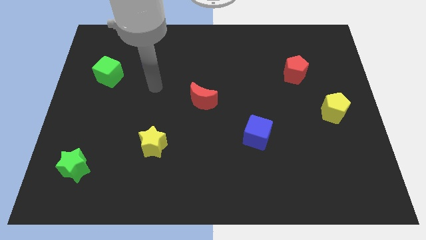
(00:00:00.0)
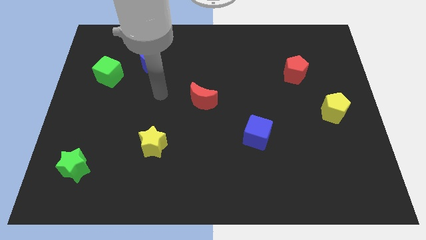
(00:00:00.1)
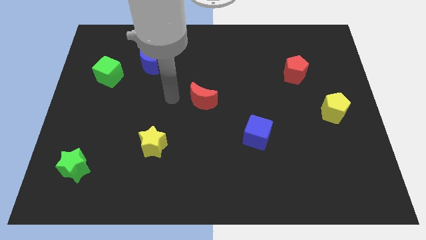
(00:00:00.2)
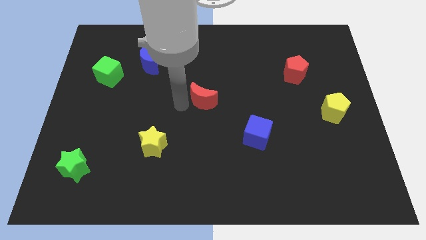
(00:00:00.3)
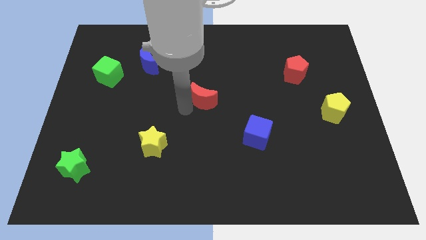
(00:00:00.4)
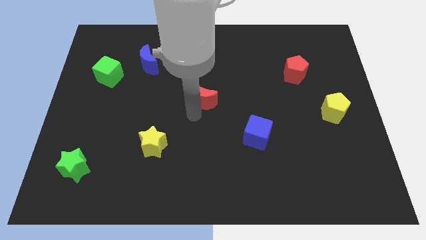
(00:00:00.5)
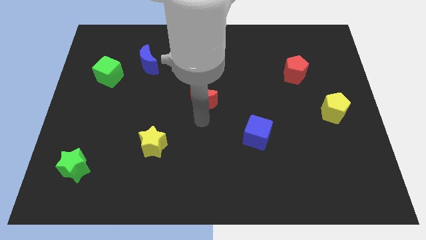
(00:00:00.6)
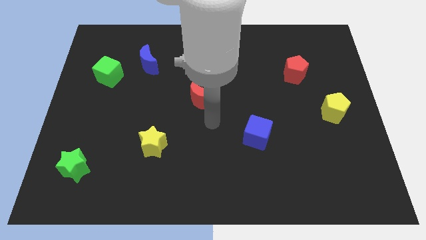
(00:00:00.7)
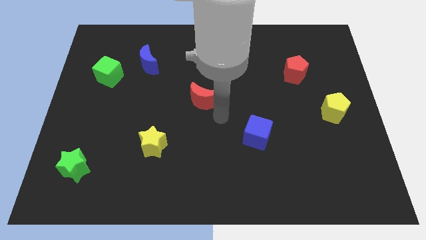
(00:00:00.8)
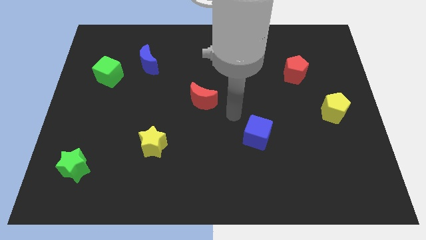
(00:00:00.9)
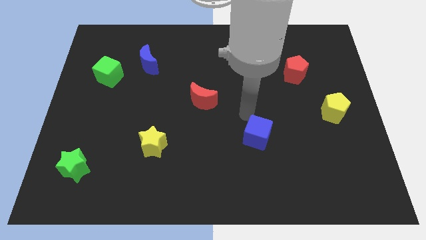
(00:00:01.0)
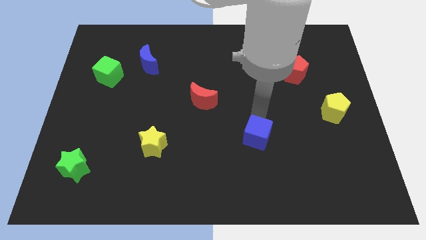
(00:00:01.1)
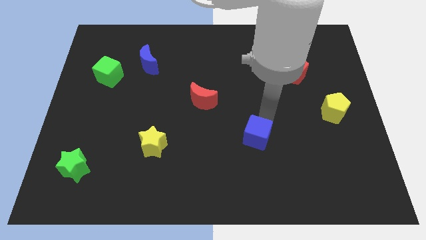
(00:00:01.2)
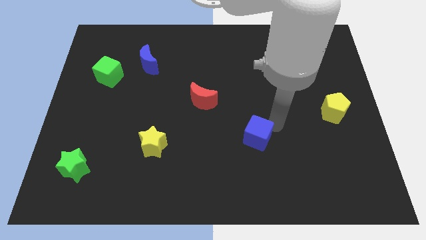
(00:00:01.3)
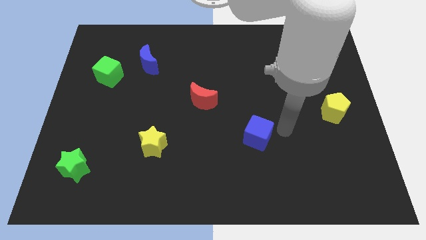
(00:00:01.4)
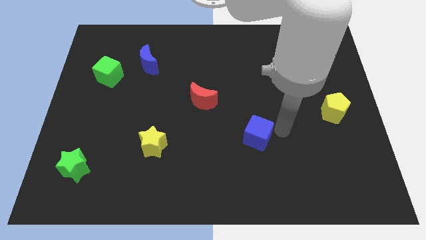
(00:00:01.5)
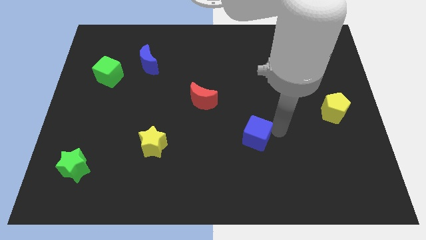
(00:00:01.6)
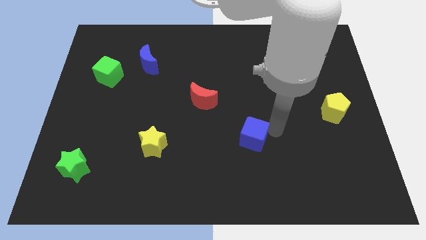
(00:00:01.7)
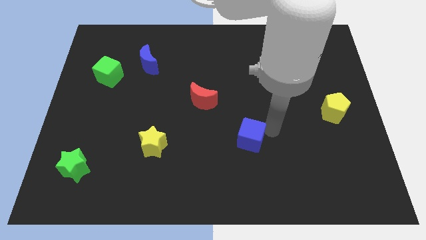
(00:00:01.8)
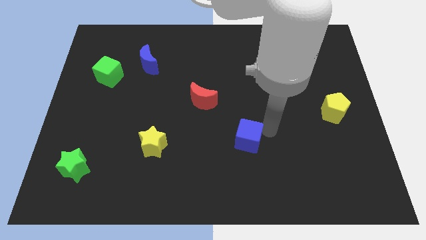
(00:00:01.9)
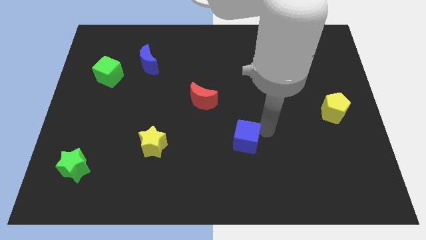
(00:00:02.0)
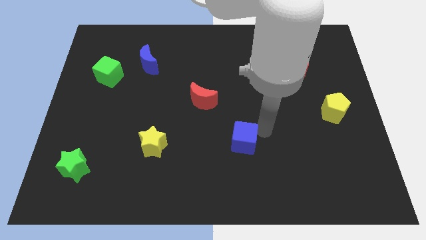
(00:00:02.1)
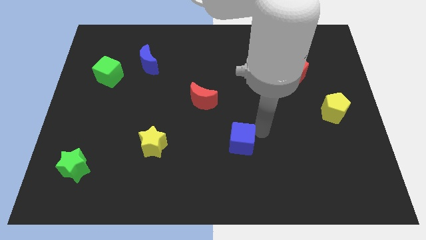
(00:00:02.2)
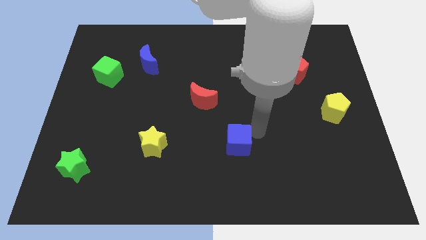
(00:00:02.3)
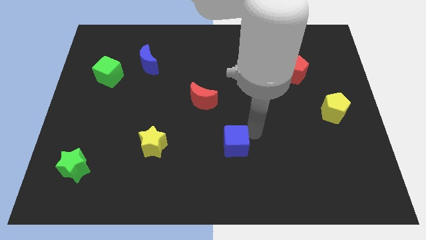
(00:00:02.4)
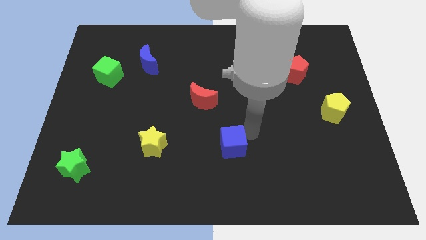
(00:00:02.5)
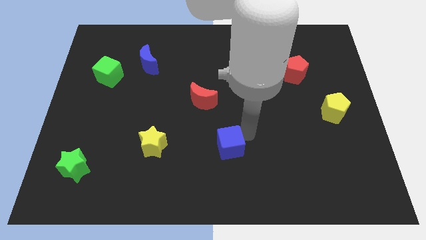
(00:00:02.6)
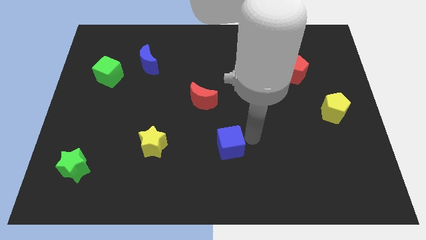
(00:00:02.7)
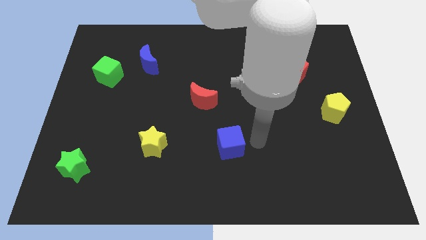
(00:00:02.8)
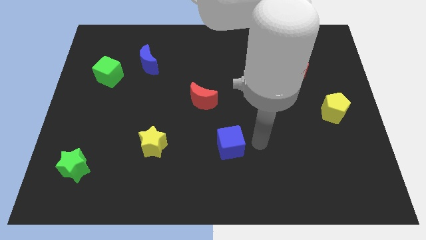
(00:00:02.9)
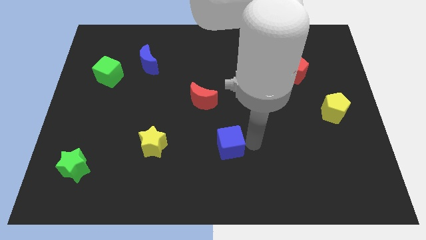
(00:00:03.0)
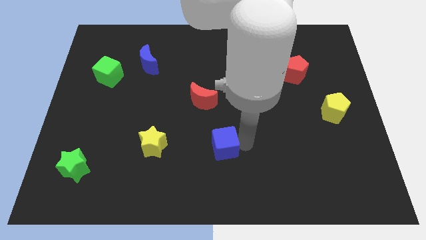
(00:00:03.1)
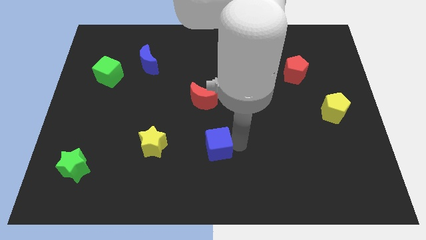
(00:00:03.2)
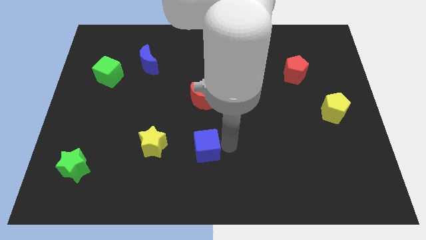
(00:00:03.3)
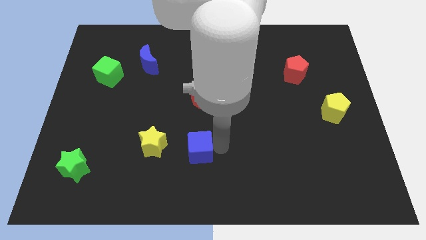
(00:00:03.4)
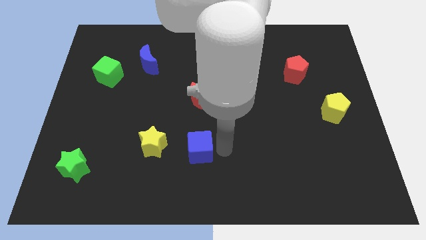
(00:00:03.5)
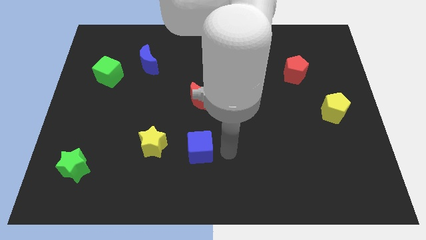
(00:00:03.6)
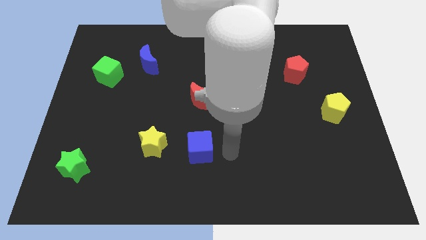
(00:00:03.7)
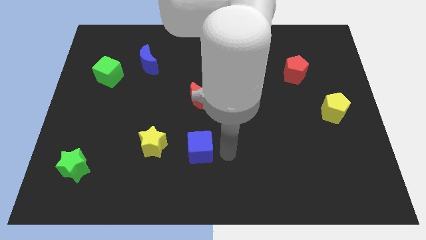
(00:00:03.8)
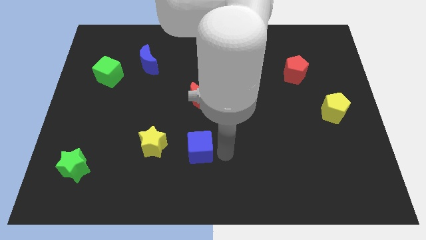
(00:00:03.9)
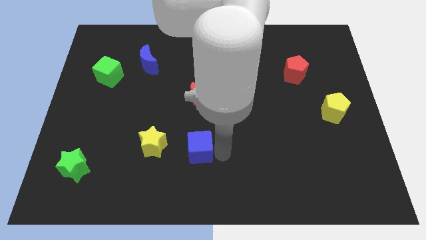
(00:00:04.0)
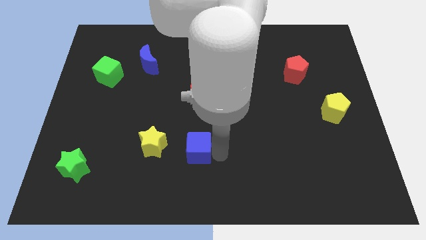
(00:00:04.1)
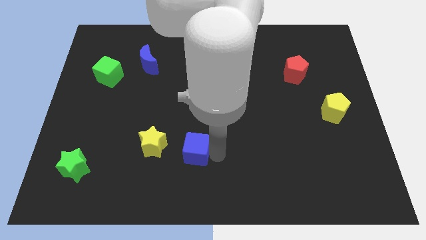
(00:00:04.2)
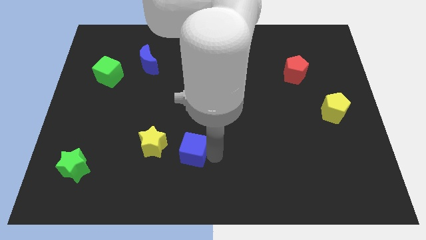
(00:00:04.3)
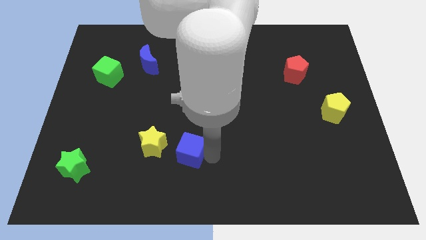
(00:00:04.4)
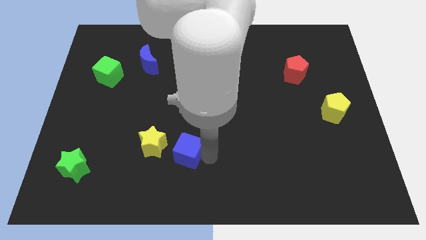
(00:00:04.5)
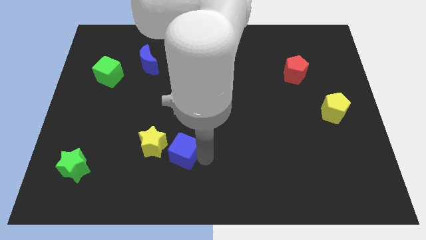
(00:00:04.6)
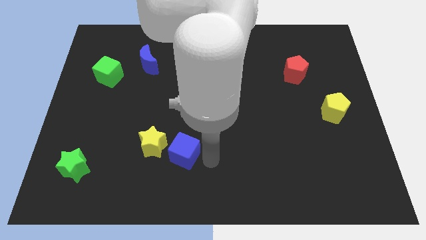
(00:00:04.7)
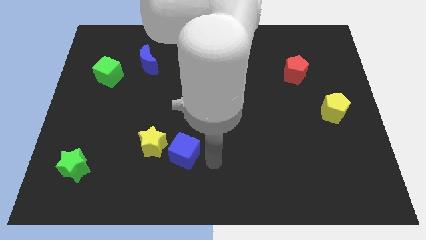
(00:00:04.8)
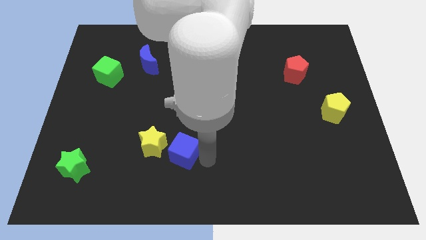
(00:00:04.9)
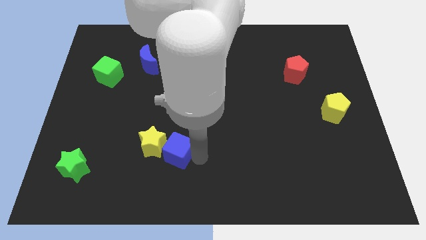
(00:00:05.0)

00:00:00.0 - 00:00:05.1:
put the blue cube to the yellow star

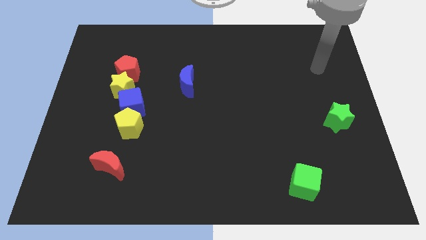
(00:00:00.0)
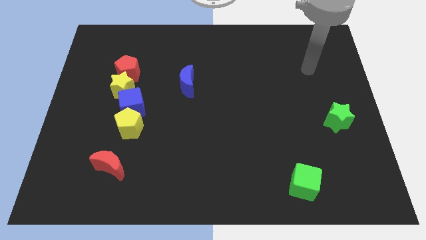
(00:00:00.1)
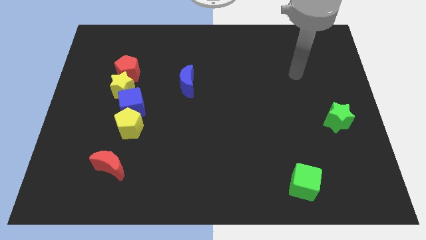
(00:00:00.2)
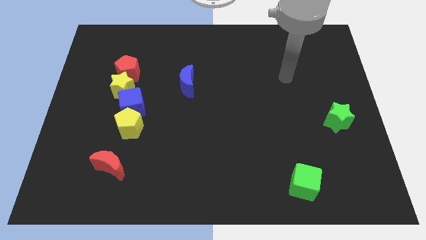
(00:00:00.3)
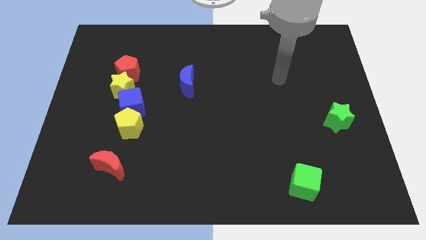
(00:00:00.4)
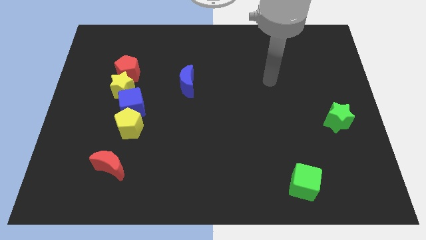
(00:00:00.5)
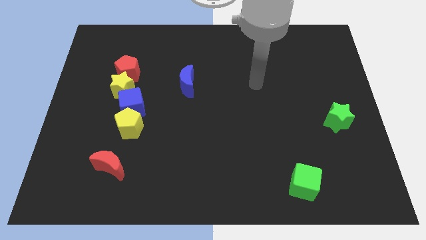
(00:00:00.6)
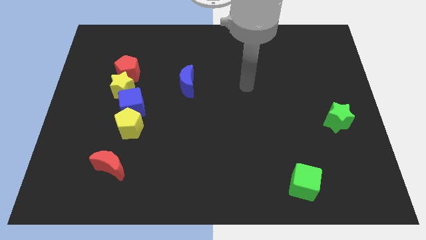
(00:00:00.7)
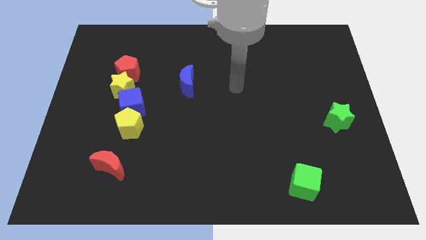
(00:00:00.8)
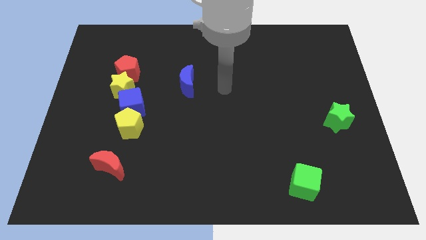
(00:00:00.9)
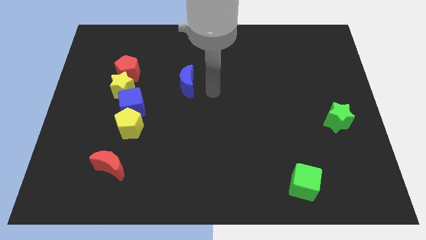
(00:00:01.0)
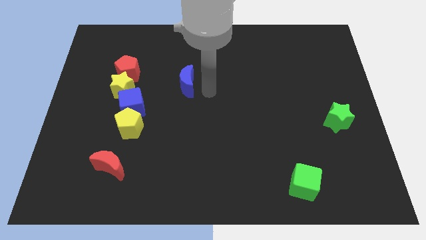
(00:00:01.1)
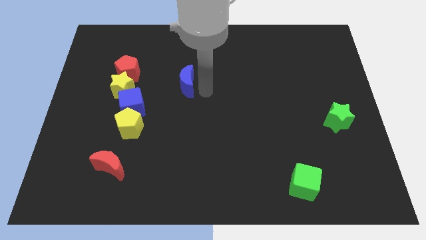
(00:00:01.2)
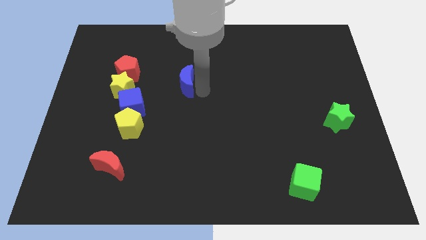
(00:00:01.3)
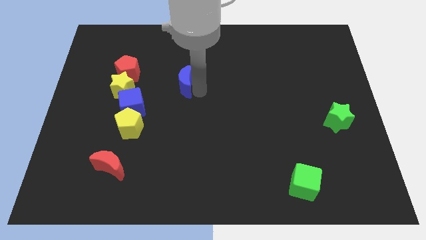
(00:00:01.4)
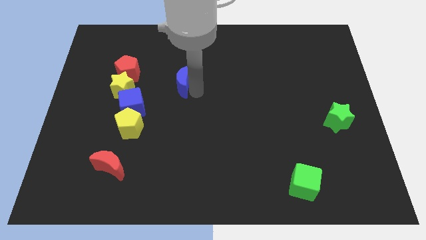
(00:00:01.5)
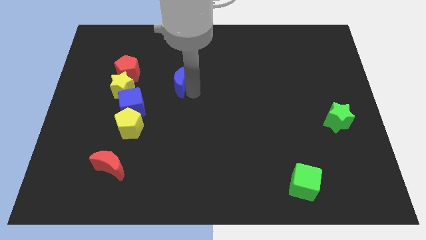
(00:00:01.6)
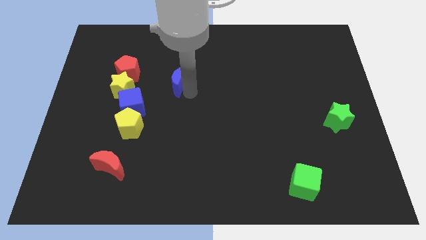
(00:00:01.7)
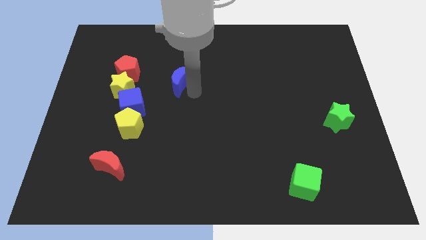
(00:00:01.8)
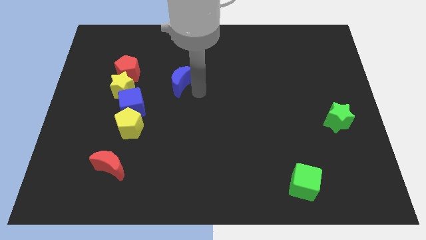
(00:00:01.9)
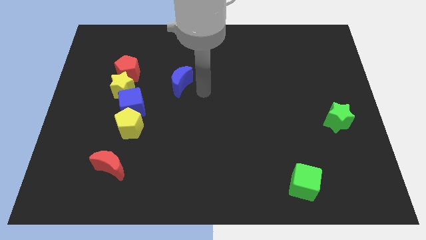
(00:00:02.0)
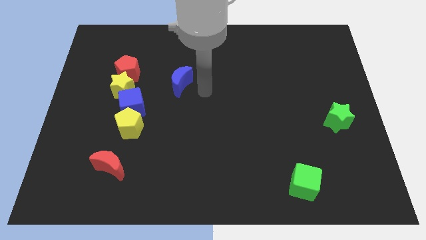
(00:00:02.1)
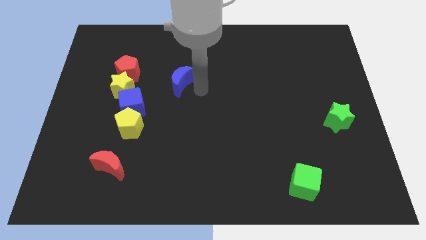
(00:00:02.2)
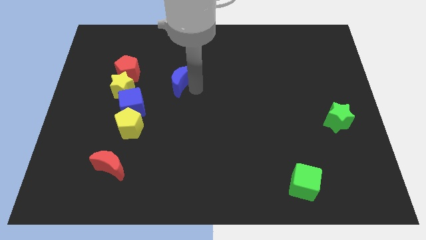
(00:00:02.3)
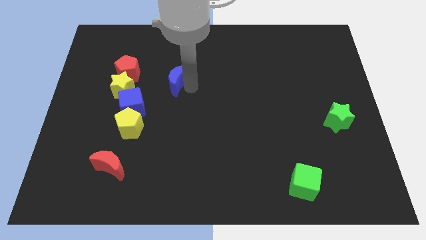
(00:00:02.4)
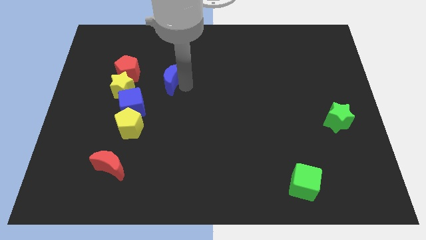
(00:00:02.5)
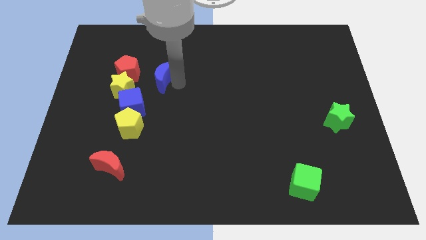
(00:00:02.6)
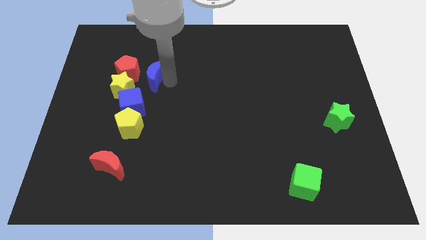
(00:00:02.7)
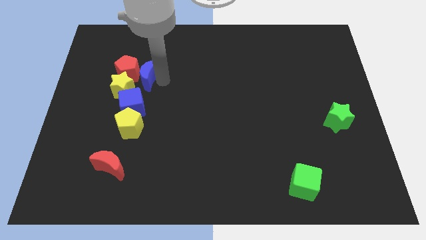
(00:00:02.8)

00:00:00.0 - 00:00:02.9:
put the blue moon towards the red pentagon
